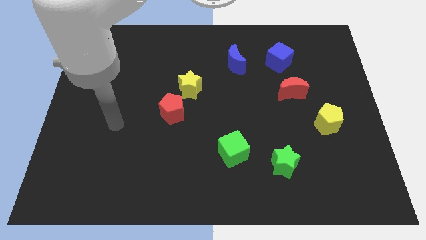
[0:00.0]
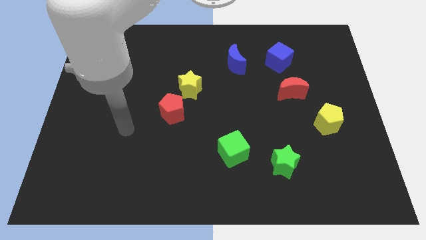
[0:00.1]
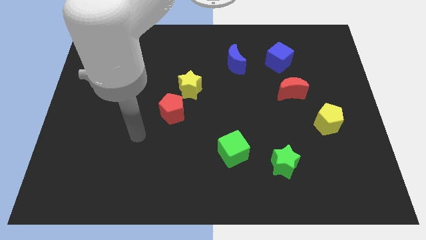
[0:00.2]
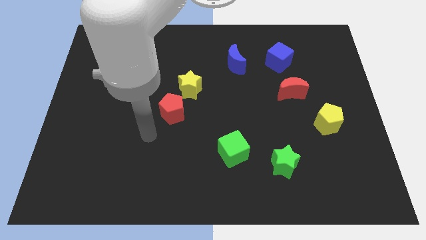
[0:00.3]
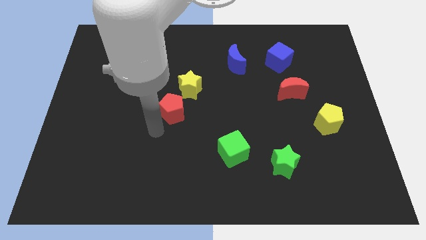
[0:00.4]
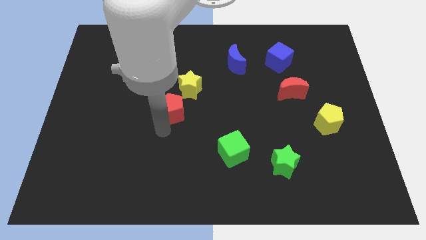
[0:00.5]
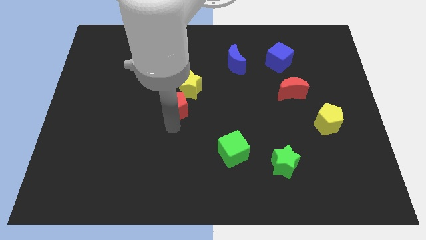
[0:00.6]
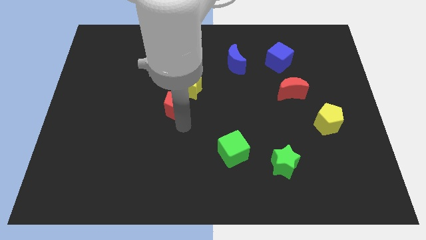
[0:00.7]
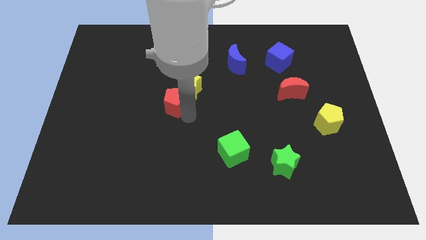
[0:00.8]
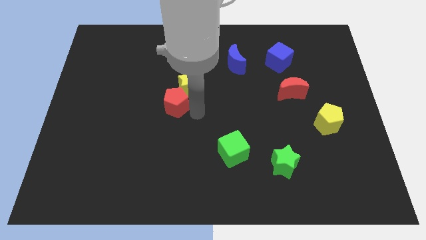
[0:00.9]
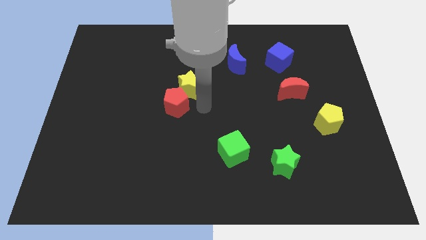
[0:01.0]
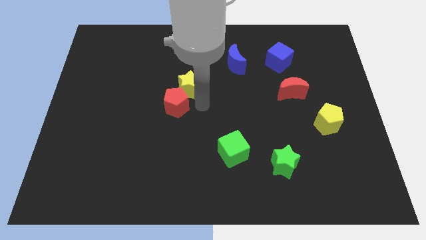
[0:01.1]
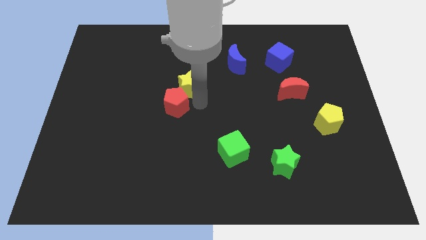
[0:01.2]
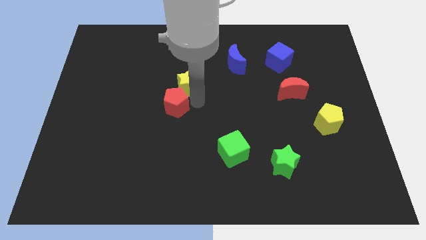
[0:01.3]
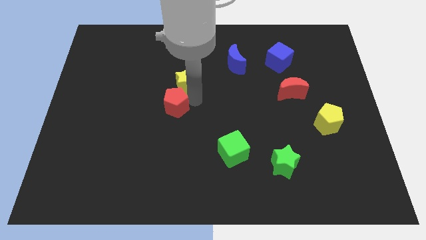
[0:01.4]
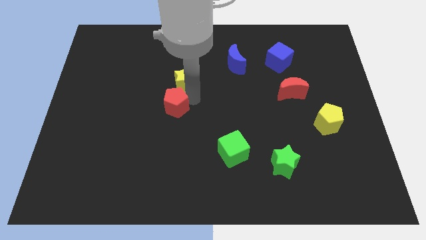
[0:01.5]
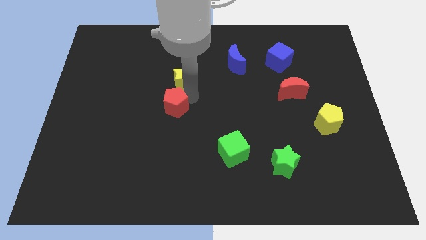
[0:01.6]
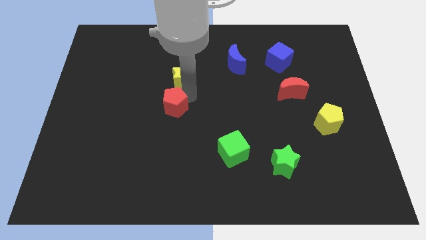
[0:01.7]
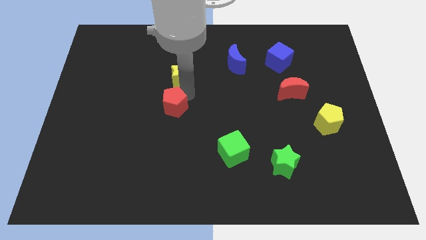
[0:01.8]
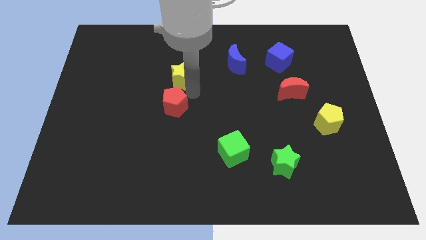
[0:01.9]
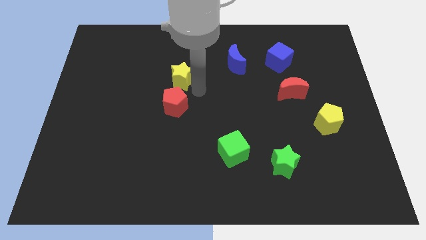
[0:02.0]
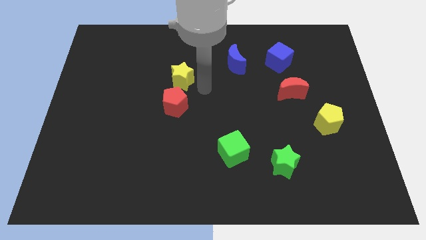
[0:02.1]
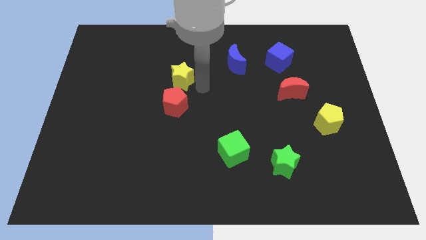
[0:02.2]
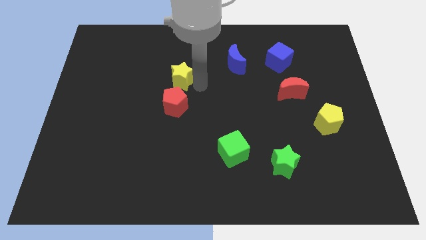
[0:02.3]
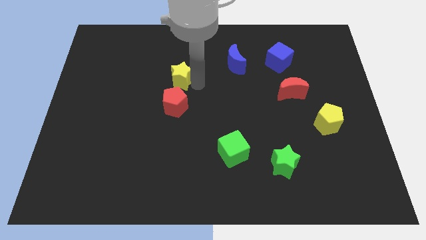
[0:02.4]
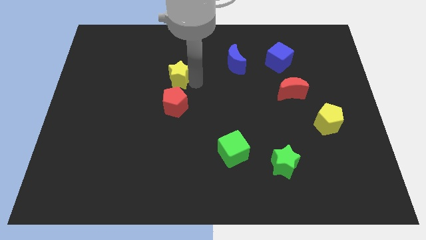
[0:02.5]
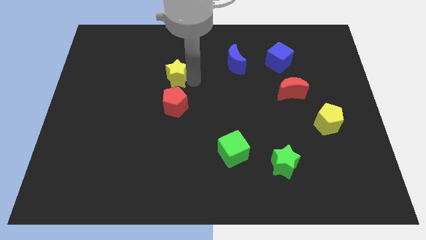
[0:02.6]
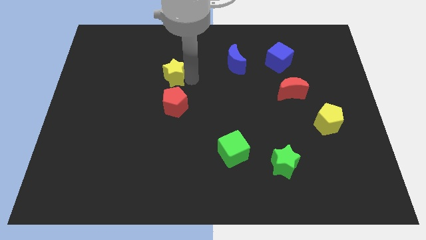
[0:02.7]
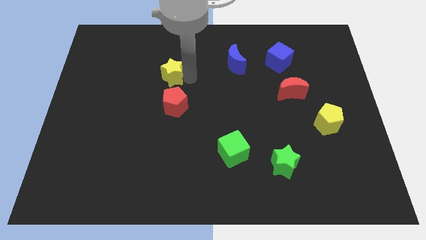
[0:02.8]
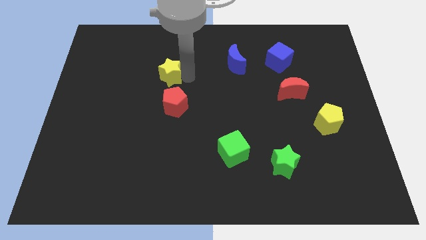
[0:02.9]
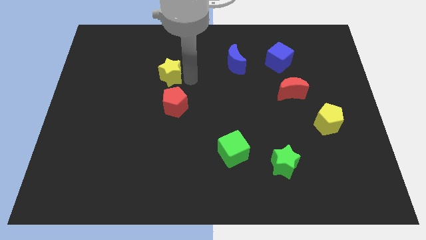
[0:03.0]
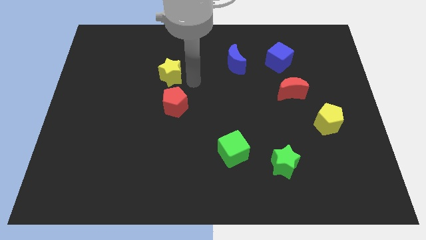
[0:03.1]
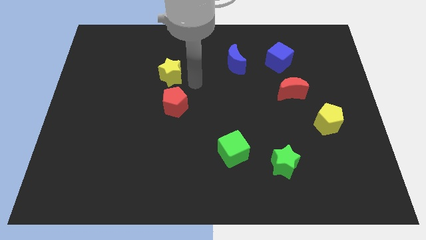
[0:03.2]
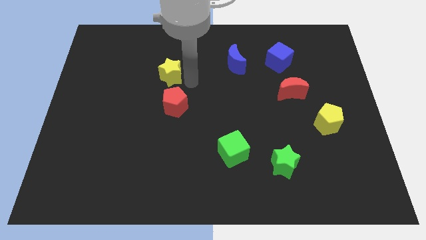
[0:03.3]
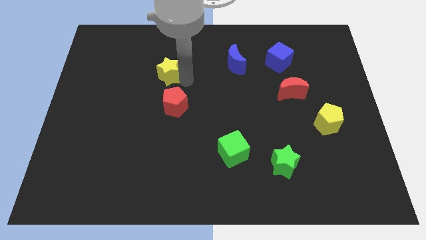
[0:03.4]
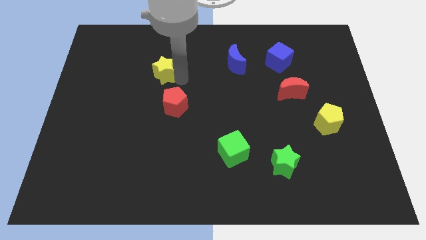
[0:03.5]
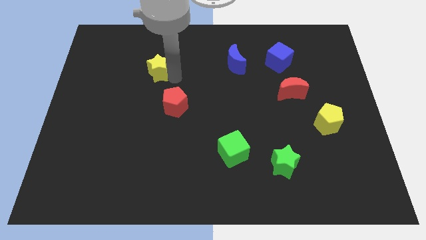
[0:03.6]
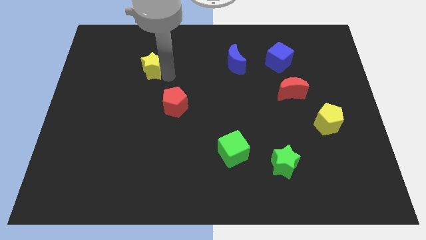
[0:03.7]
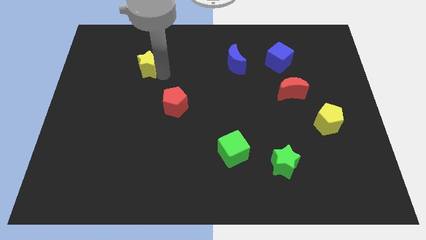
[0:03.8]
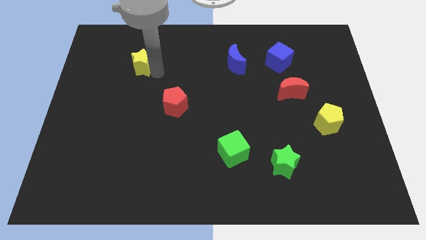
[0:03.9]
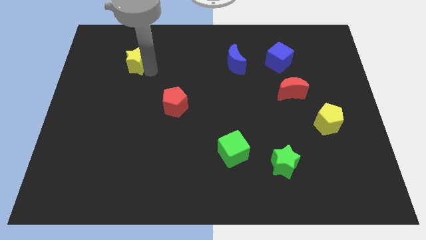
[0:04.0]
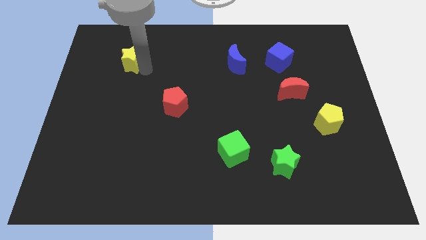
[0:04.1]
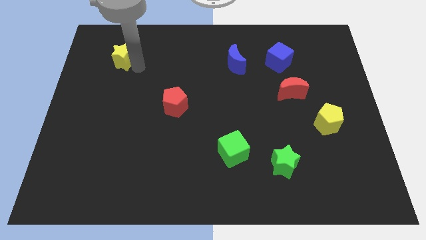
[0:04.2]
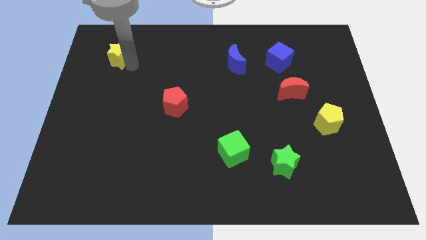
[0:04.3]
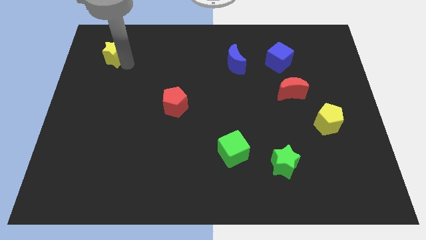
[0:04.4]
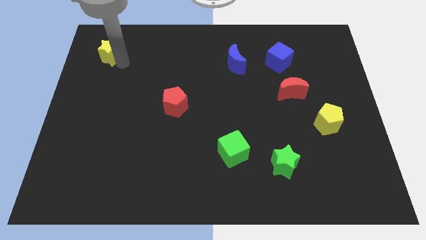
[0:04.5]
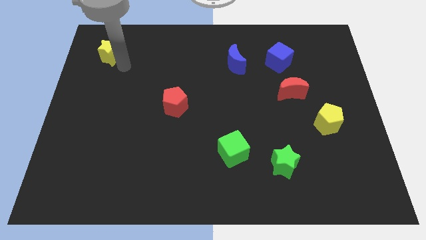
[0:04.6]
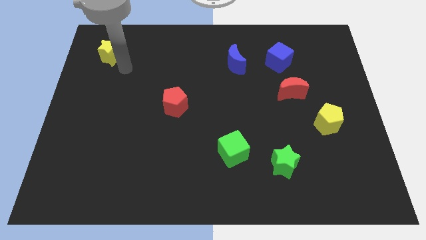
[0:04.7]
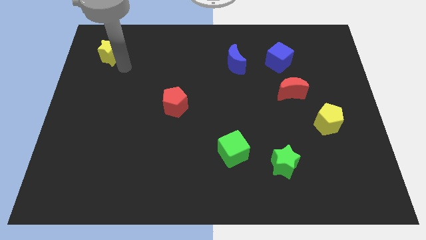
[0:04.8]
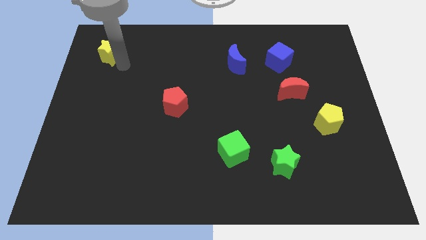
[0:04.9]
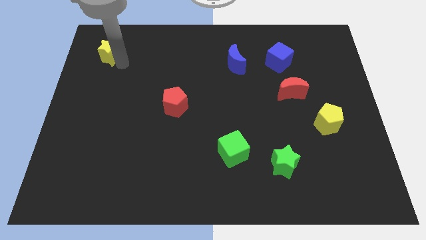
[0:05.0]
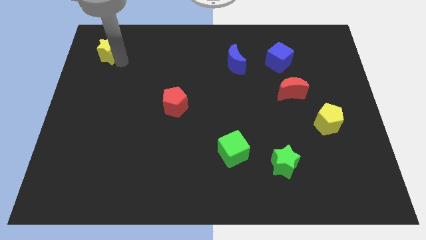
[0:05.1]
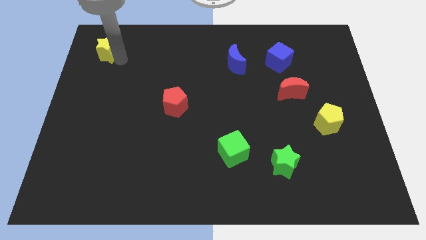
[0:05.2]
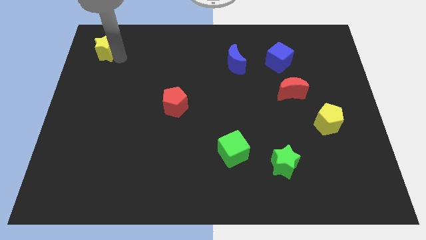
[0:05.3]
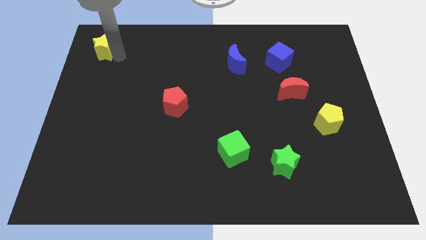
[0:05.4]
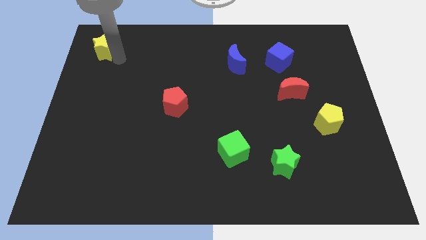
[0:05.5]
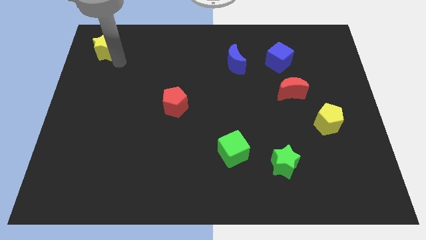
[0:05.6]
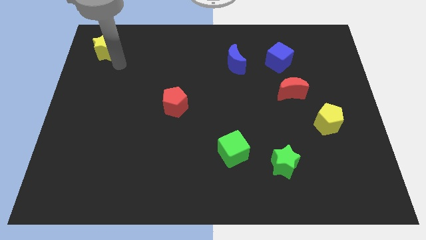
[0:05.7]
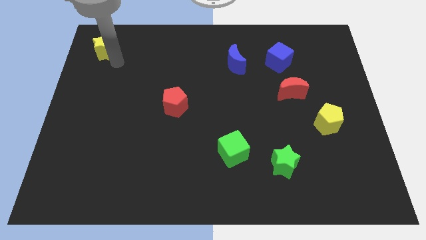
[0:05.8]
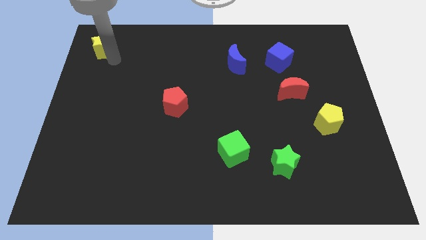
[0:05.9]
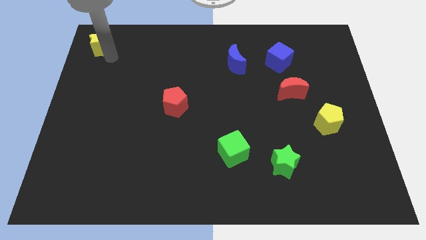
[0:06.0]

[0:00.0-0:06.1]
put the yellow star to the top left corner
